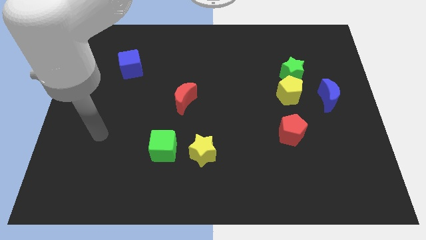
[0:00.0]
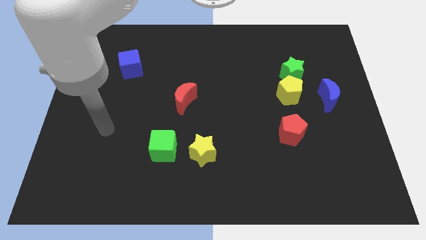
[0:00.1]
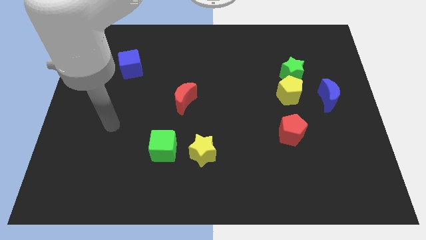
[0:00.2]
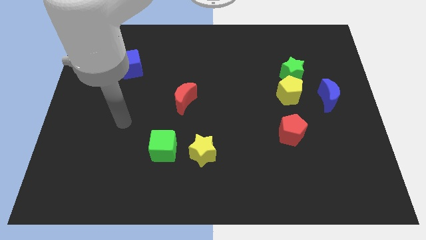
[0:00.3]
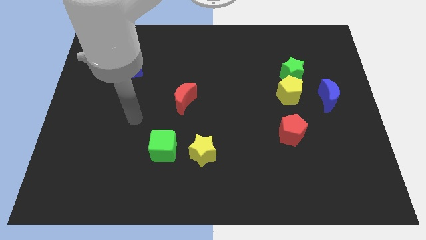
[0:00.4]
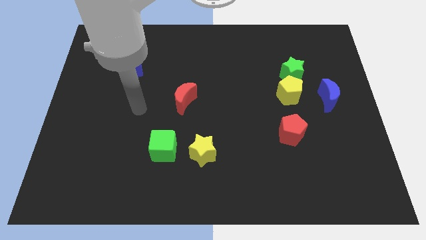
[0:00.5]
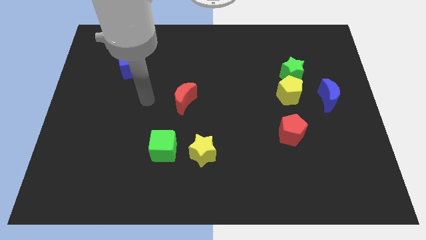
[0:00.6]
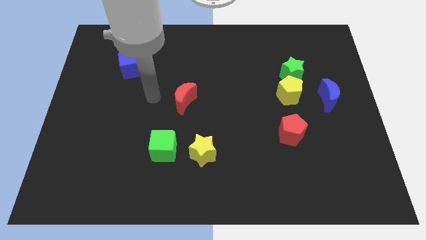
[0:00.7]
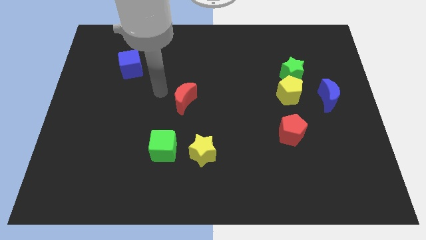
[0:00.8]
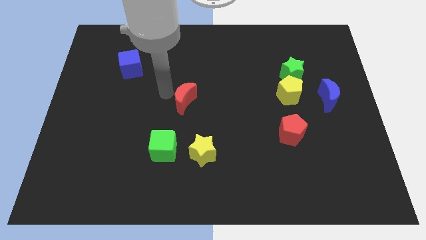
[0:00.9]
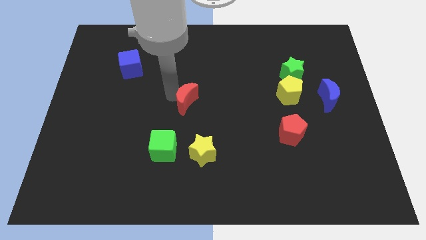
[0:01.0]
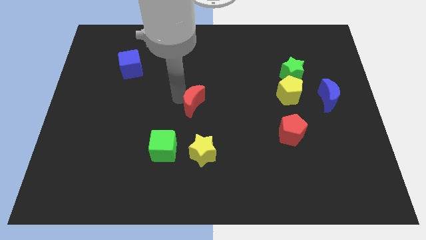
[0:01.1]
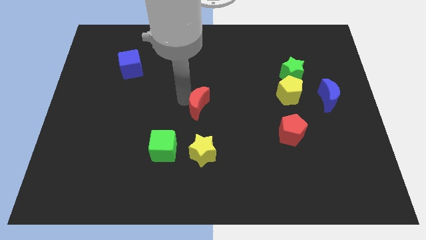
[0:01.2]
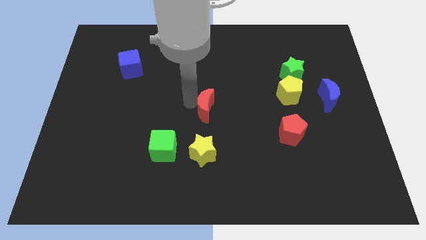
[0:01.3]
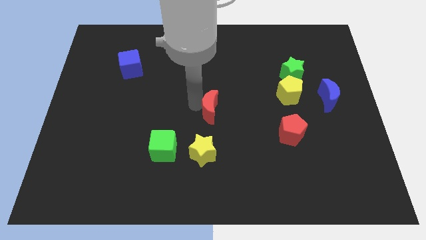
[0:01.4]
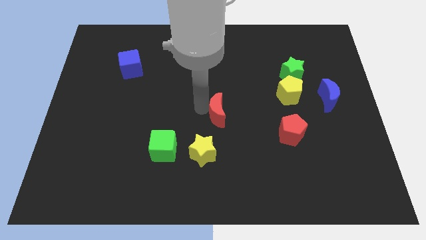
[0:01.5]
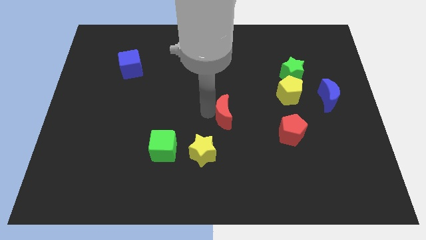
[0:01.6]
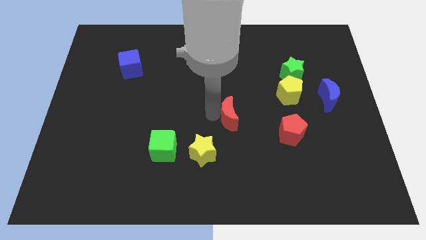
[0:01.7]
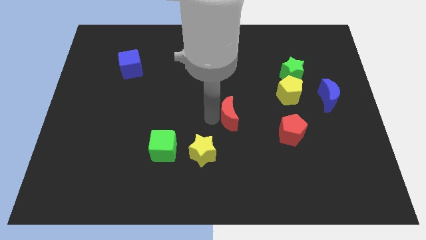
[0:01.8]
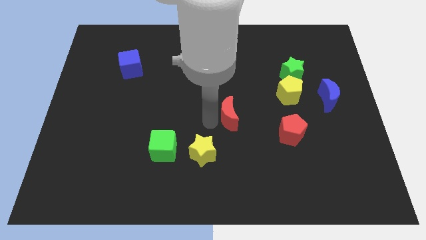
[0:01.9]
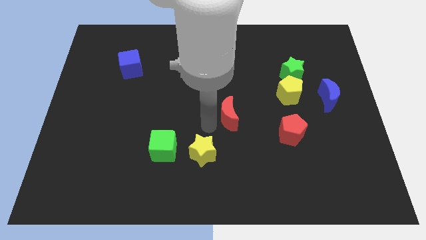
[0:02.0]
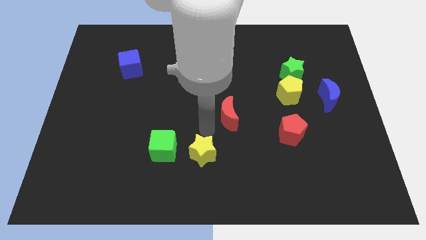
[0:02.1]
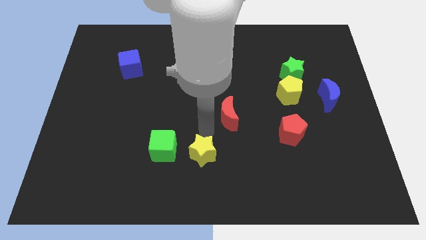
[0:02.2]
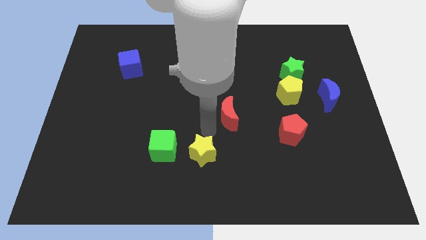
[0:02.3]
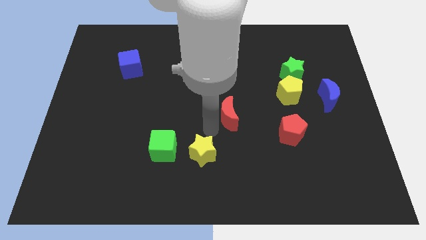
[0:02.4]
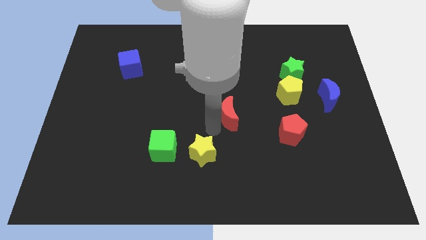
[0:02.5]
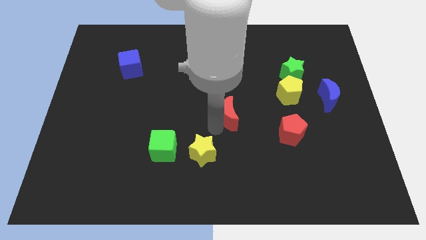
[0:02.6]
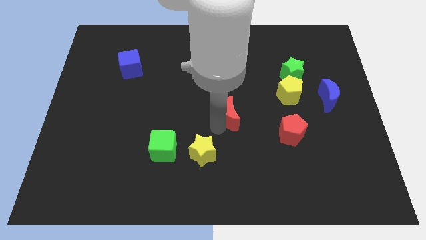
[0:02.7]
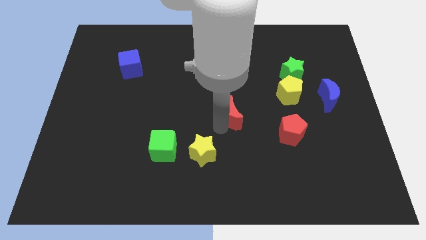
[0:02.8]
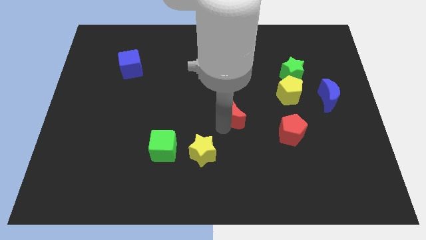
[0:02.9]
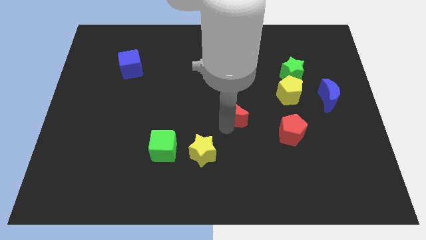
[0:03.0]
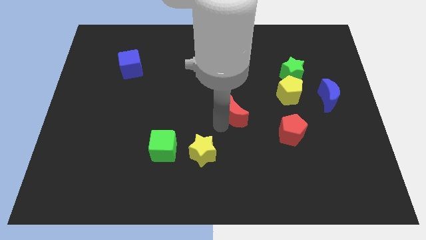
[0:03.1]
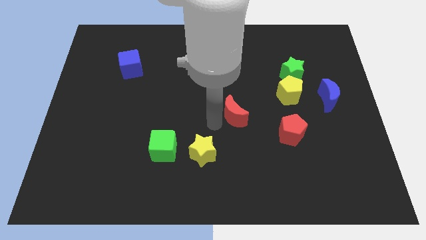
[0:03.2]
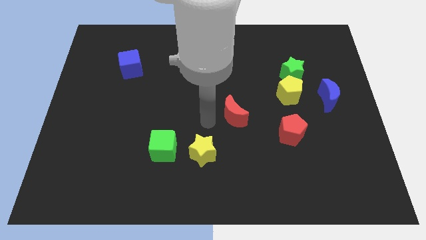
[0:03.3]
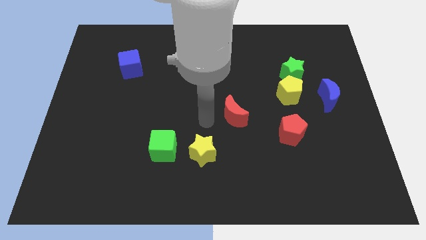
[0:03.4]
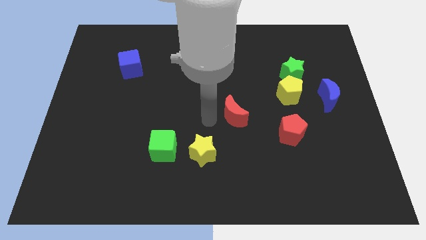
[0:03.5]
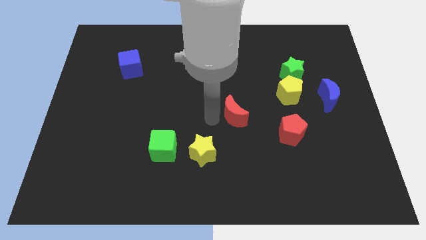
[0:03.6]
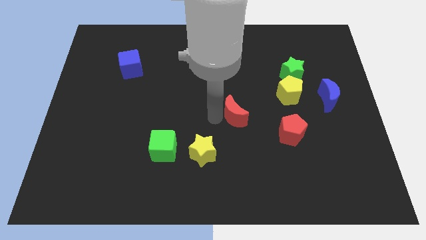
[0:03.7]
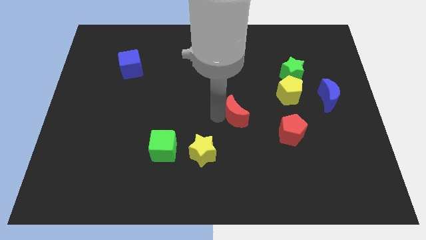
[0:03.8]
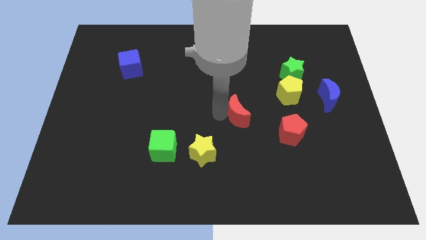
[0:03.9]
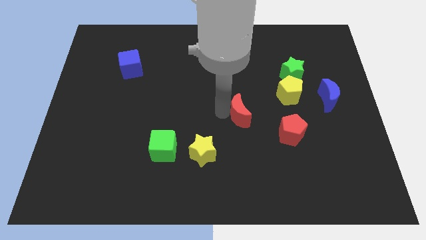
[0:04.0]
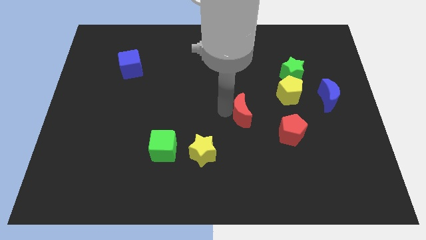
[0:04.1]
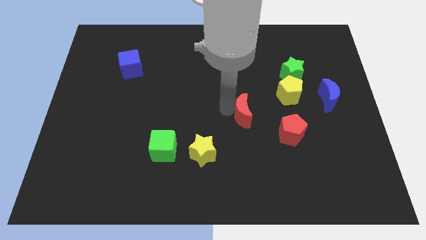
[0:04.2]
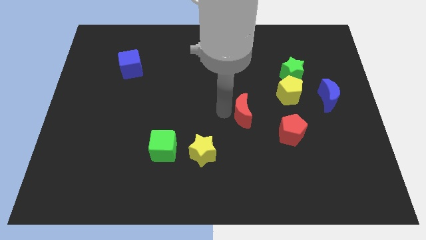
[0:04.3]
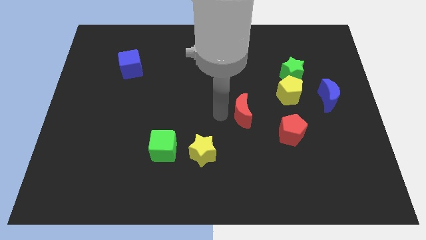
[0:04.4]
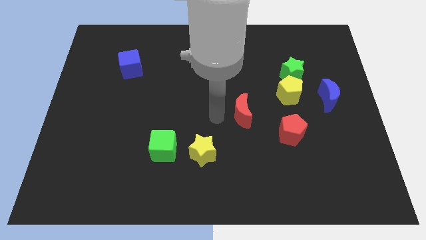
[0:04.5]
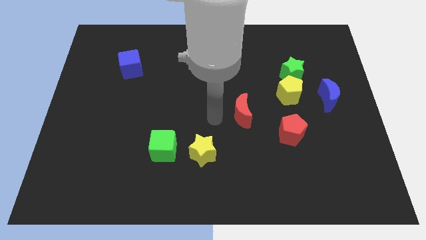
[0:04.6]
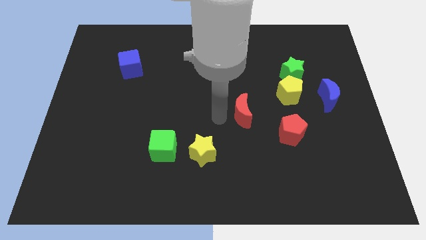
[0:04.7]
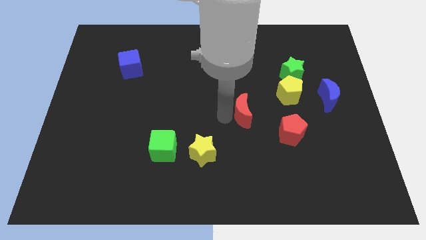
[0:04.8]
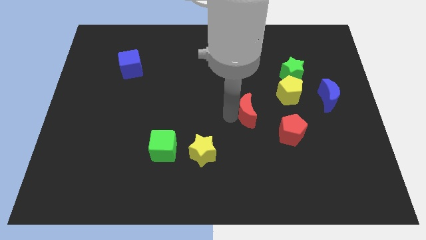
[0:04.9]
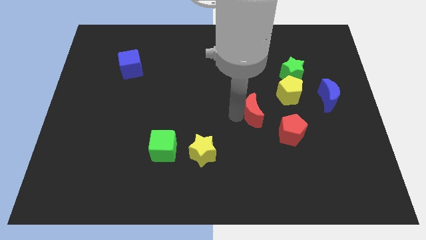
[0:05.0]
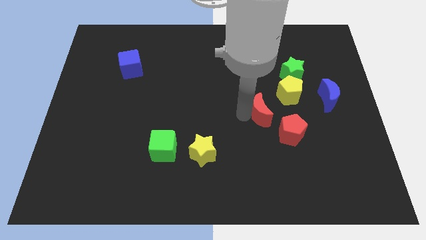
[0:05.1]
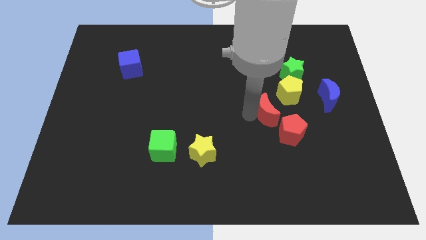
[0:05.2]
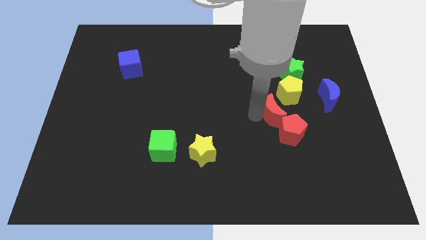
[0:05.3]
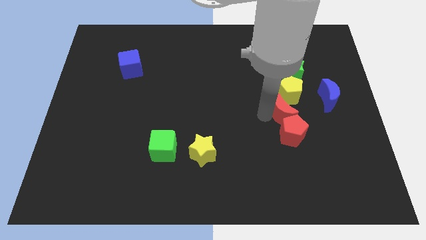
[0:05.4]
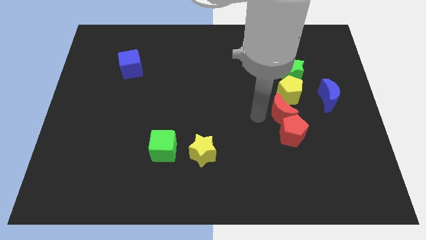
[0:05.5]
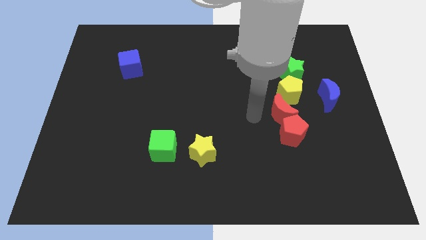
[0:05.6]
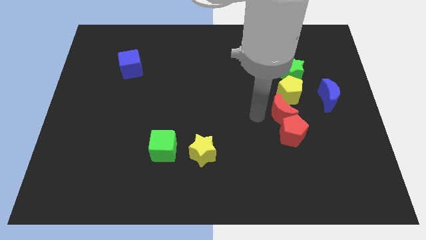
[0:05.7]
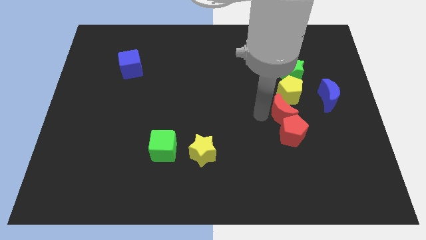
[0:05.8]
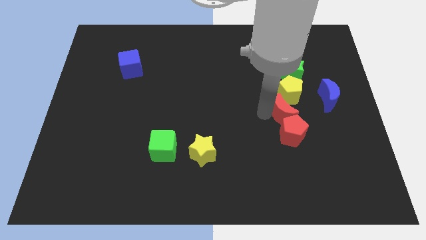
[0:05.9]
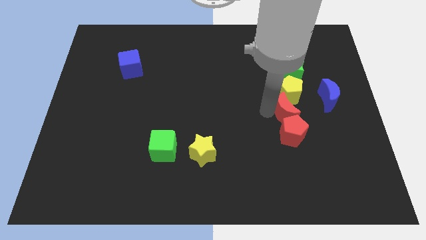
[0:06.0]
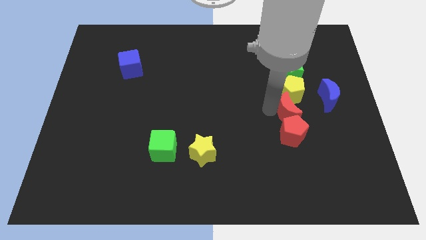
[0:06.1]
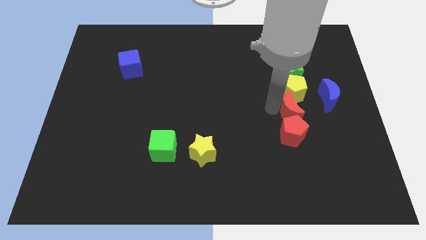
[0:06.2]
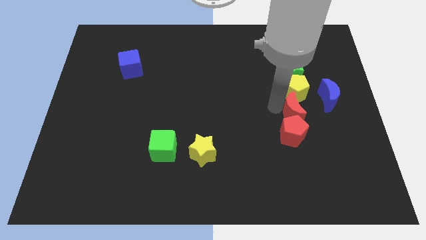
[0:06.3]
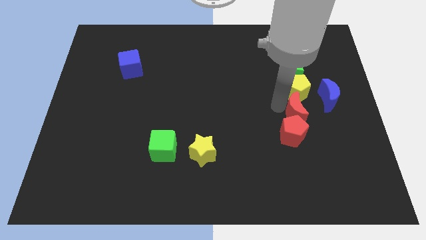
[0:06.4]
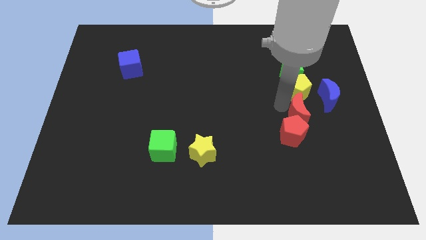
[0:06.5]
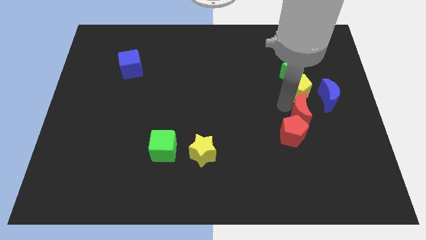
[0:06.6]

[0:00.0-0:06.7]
push the red moon to the bottom right side of the yellow pentagon
